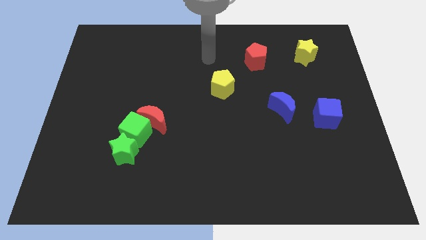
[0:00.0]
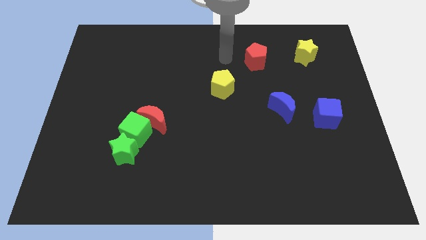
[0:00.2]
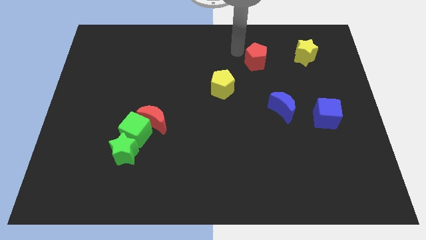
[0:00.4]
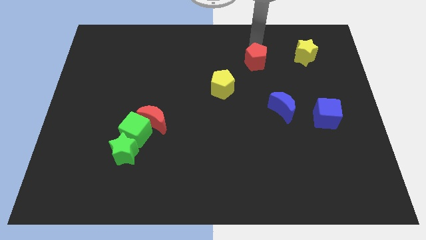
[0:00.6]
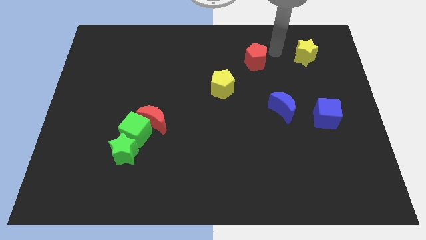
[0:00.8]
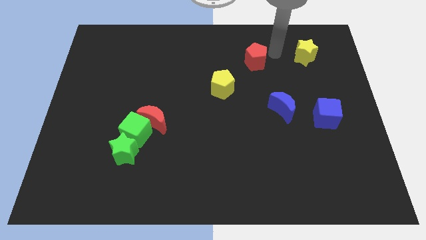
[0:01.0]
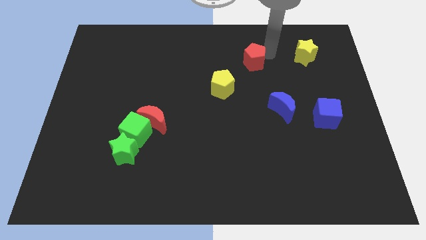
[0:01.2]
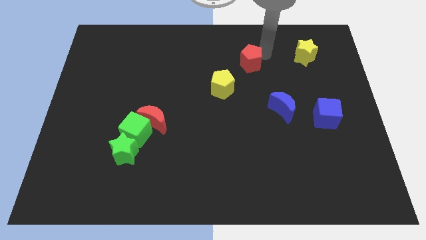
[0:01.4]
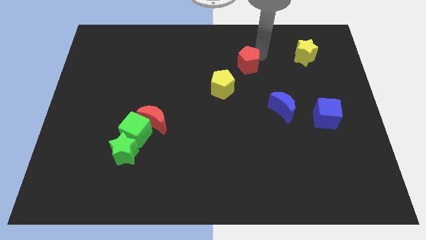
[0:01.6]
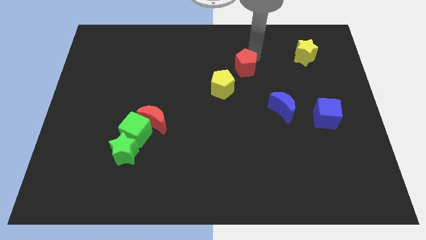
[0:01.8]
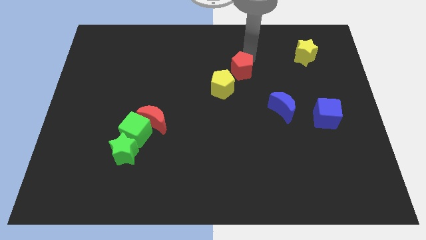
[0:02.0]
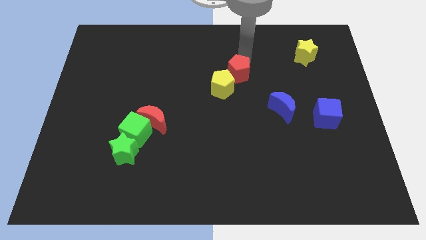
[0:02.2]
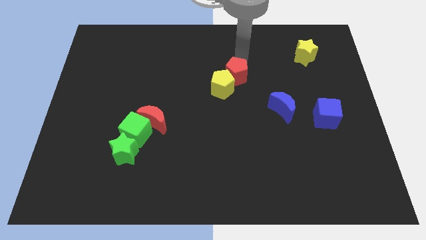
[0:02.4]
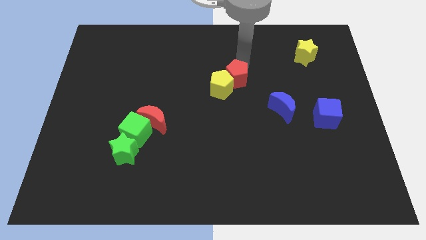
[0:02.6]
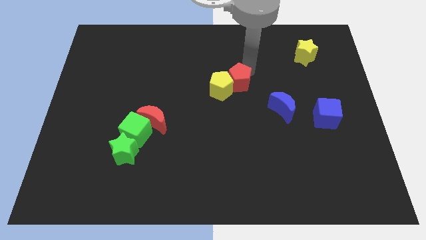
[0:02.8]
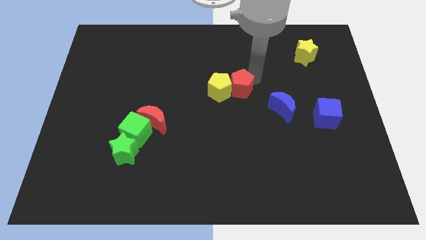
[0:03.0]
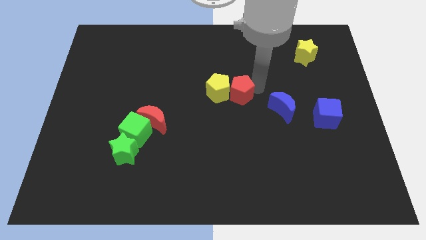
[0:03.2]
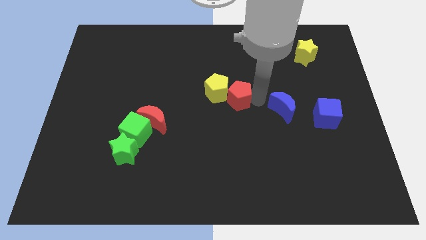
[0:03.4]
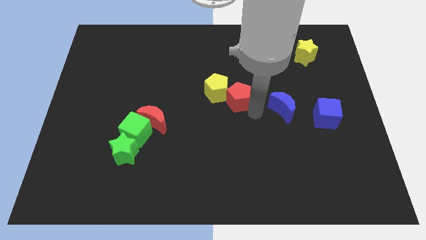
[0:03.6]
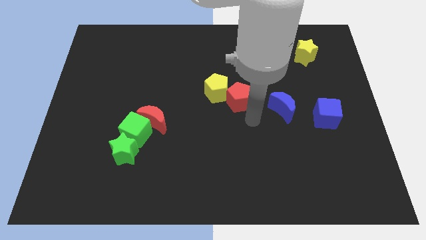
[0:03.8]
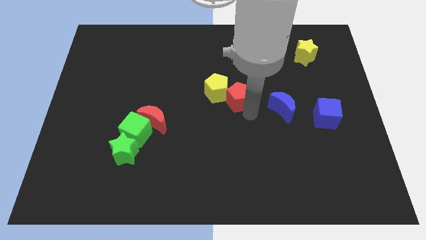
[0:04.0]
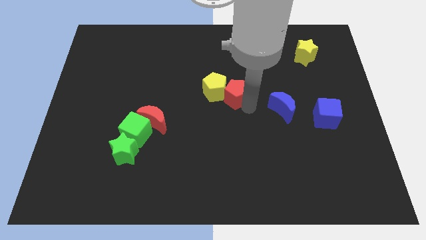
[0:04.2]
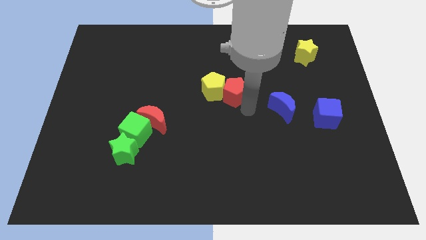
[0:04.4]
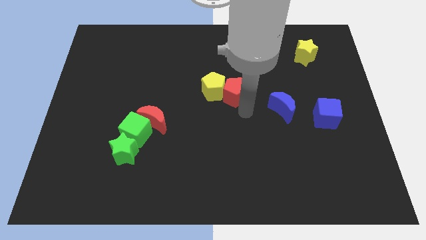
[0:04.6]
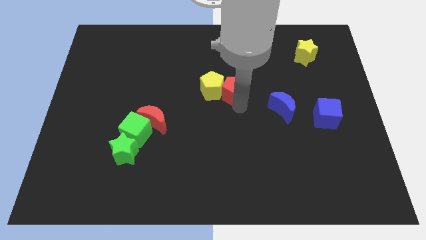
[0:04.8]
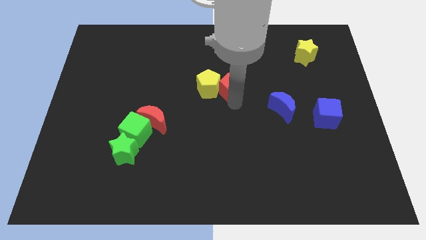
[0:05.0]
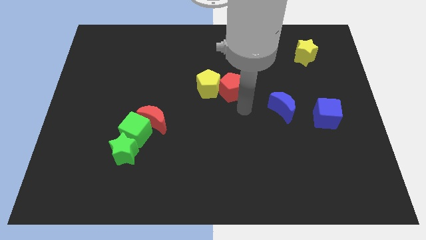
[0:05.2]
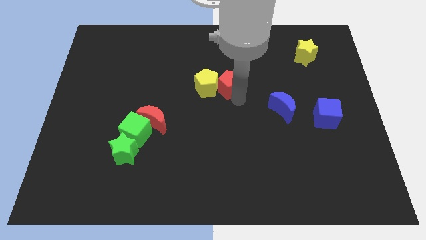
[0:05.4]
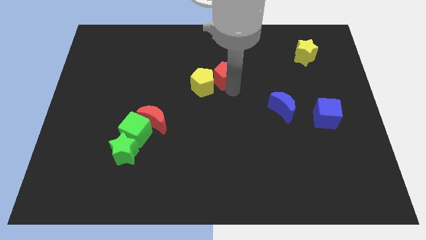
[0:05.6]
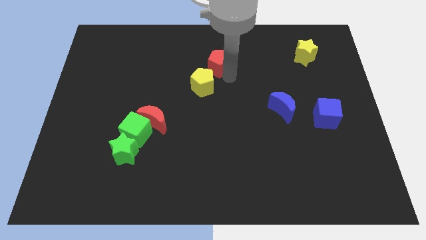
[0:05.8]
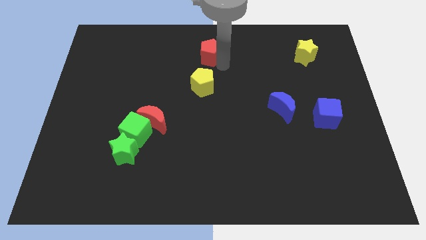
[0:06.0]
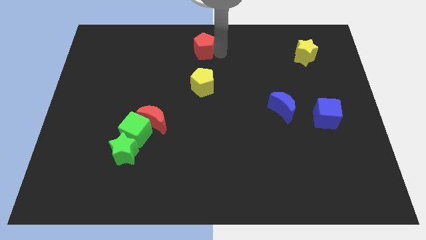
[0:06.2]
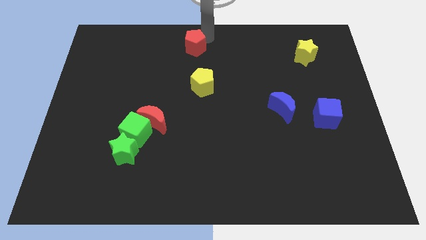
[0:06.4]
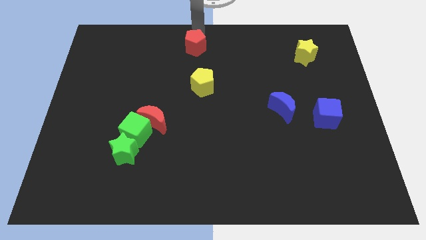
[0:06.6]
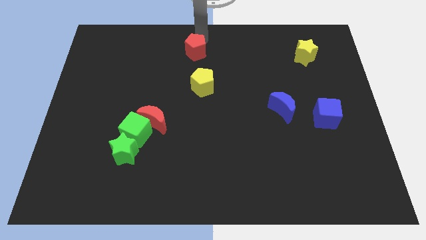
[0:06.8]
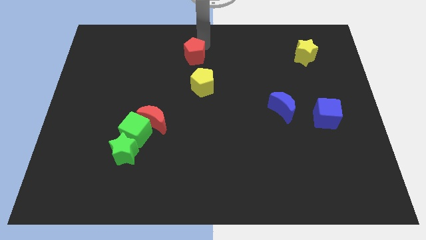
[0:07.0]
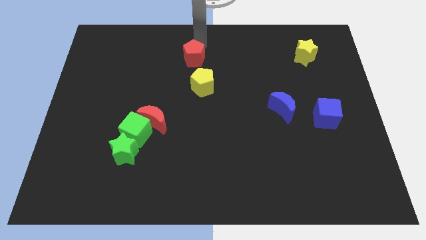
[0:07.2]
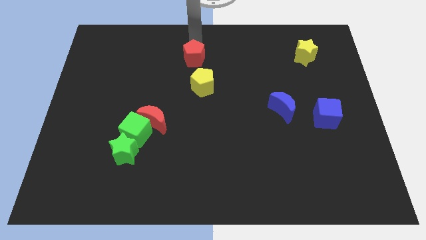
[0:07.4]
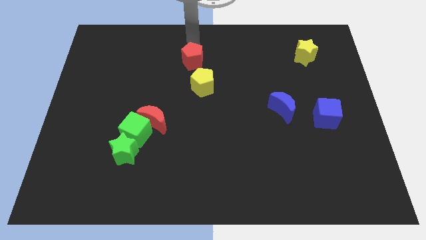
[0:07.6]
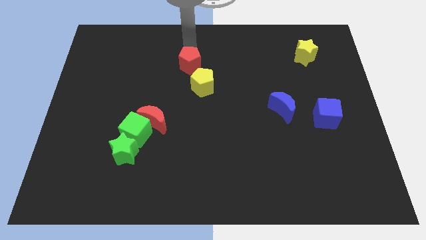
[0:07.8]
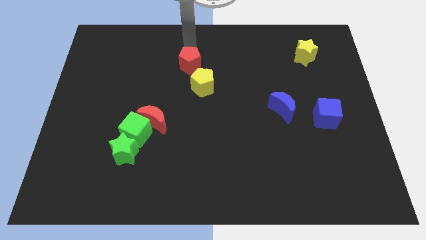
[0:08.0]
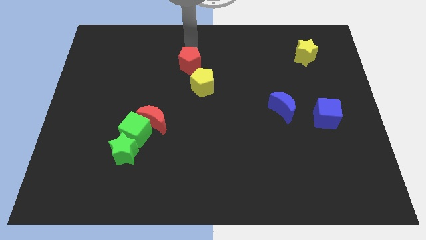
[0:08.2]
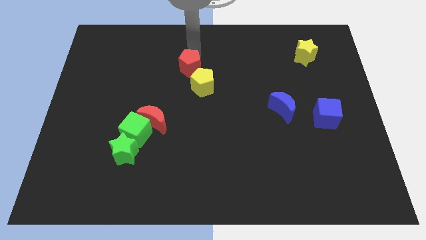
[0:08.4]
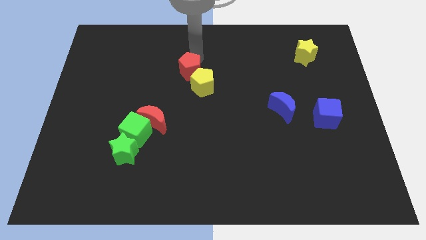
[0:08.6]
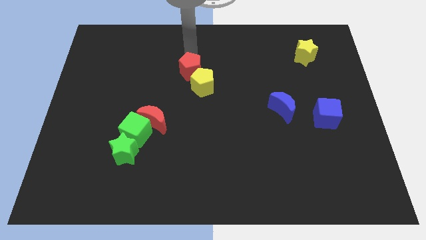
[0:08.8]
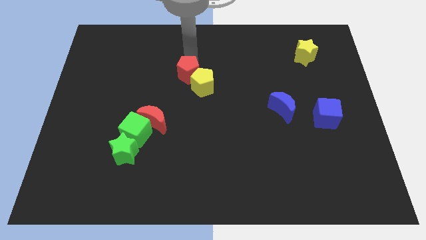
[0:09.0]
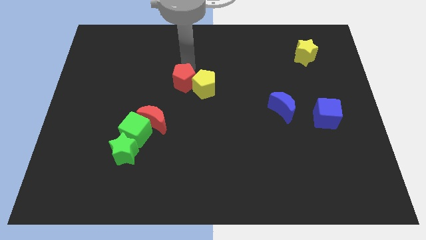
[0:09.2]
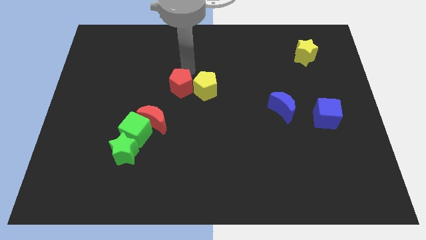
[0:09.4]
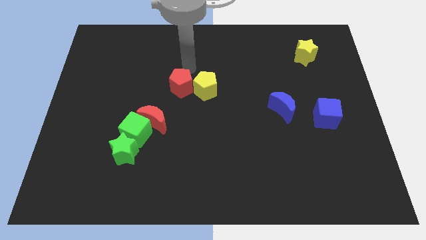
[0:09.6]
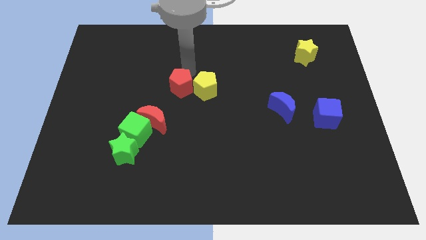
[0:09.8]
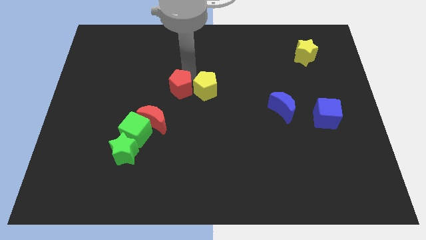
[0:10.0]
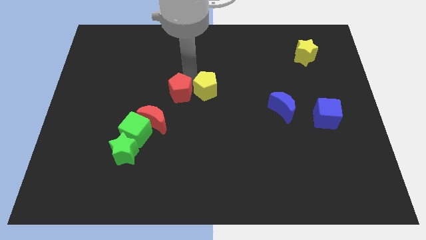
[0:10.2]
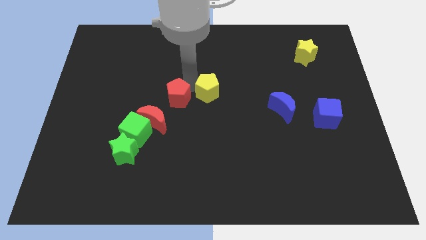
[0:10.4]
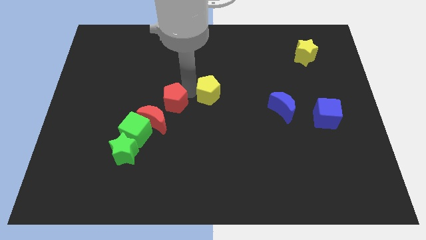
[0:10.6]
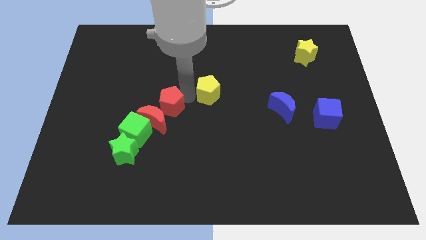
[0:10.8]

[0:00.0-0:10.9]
slide the red pentagon next to the red moon

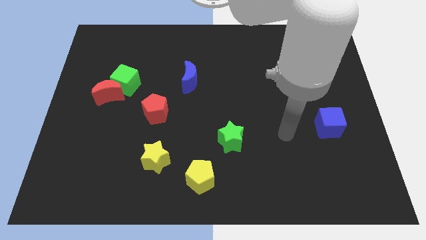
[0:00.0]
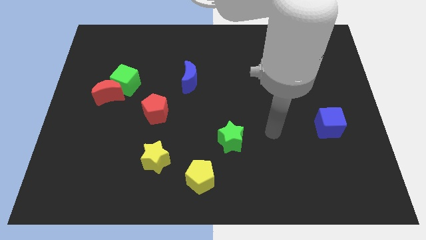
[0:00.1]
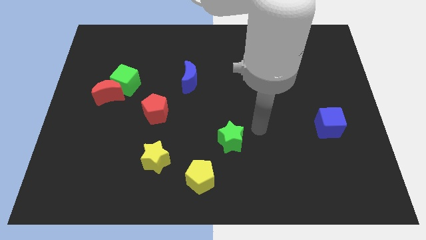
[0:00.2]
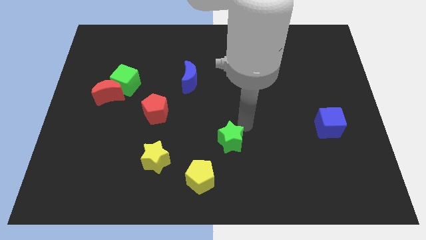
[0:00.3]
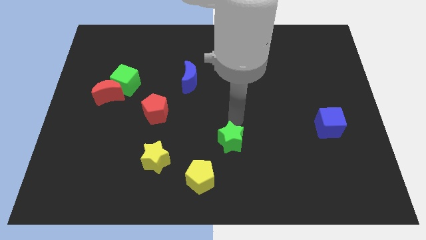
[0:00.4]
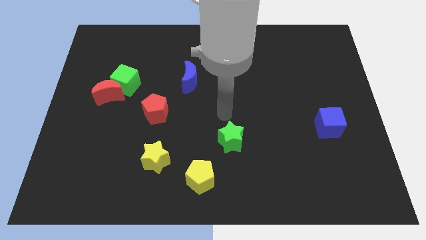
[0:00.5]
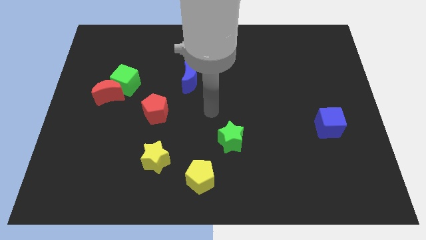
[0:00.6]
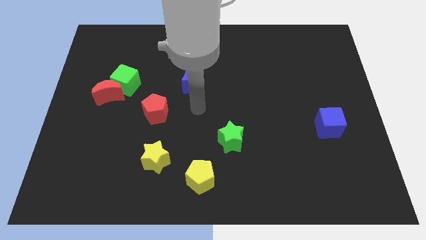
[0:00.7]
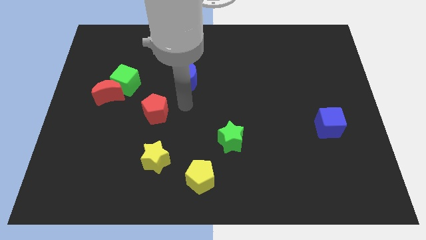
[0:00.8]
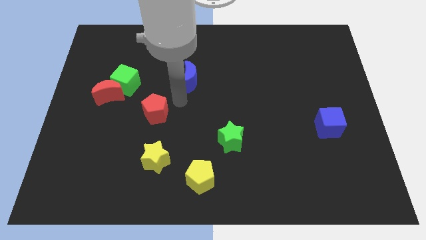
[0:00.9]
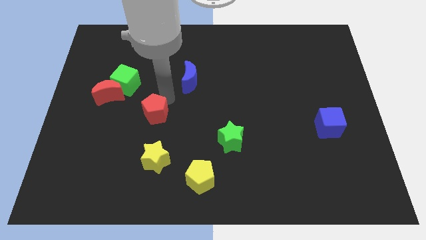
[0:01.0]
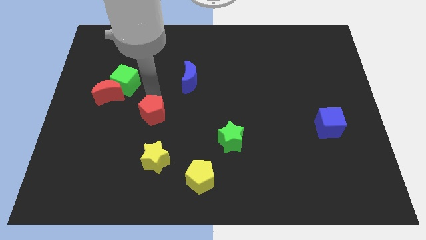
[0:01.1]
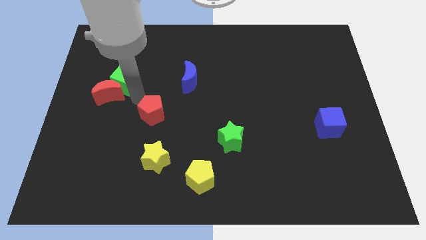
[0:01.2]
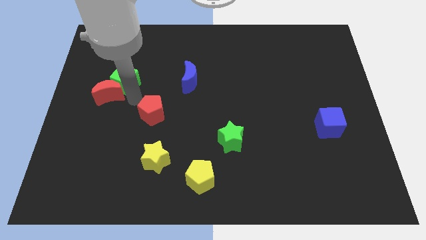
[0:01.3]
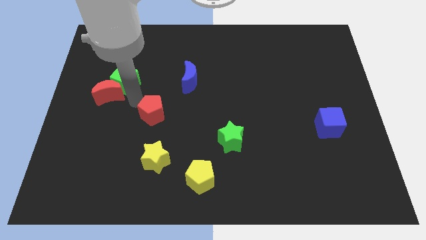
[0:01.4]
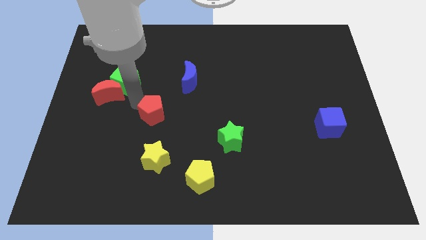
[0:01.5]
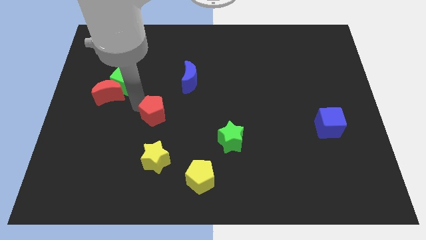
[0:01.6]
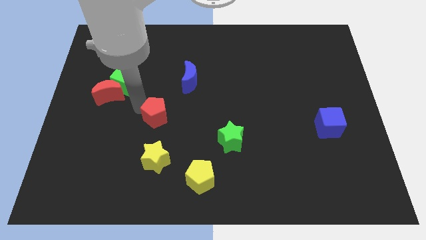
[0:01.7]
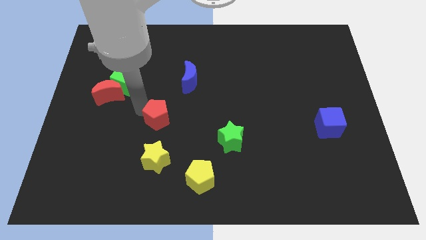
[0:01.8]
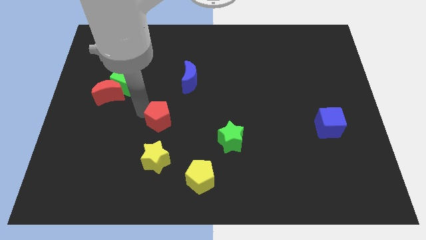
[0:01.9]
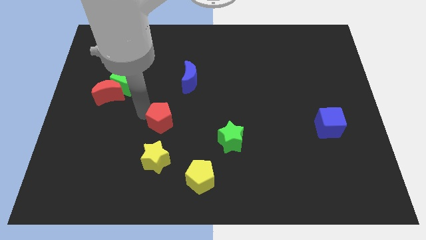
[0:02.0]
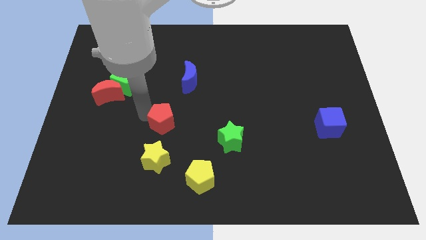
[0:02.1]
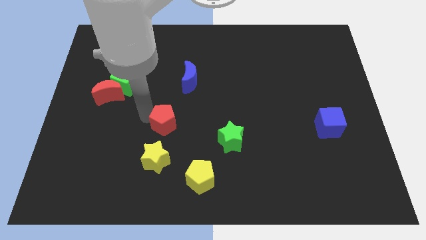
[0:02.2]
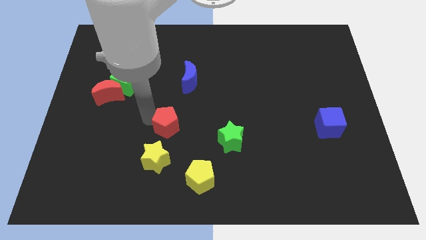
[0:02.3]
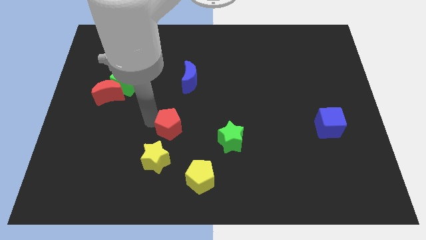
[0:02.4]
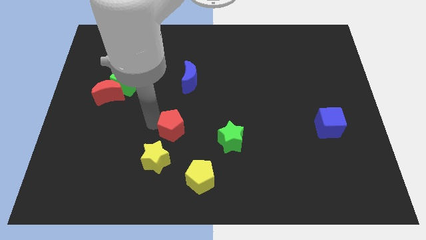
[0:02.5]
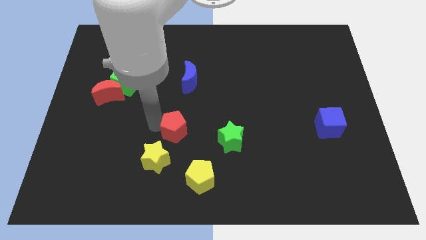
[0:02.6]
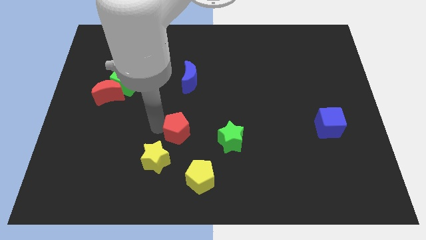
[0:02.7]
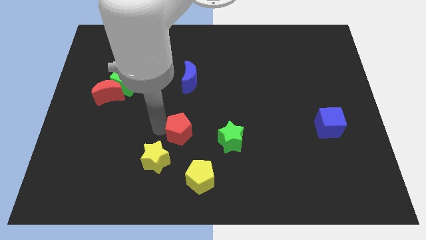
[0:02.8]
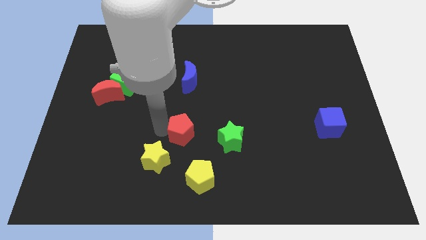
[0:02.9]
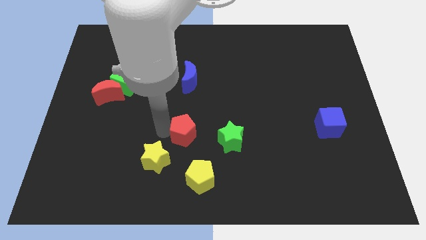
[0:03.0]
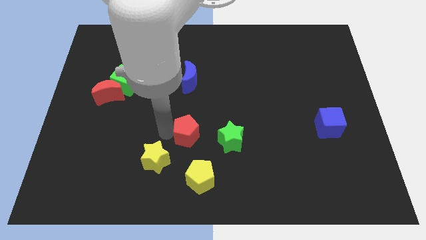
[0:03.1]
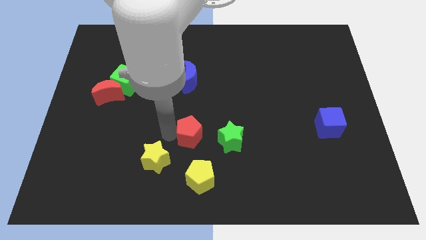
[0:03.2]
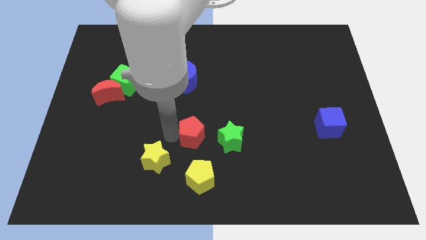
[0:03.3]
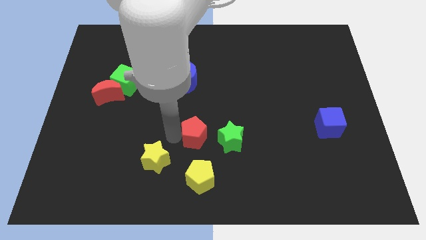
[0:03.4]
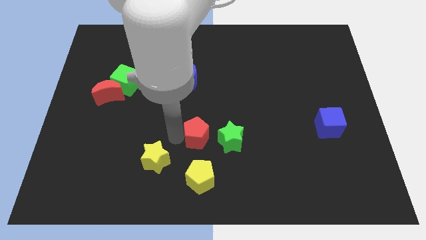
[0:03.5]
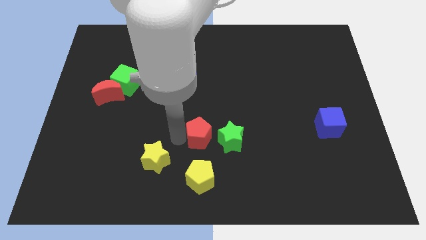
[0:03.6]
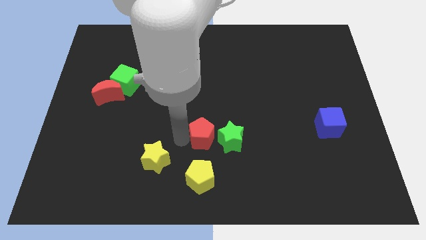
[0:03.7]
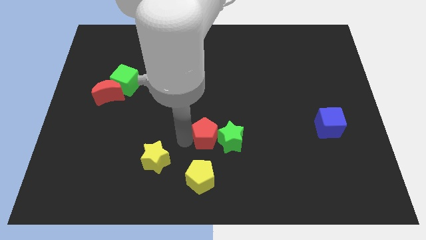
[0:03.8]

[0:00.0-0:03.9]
push the red pentagon to the green star
